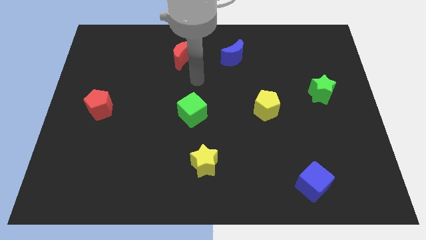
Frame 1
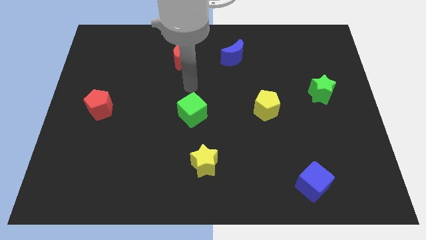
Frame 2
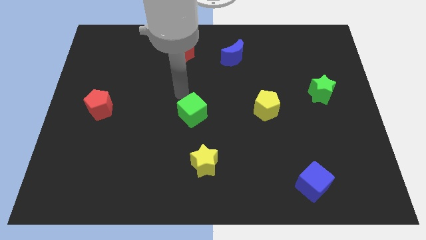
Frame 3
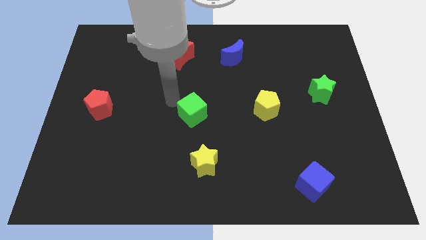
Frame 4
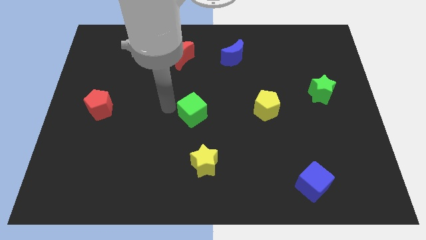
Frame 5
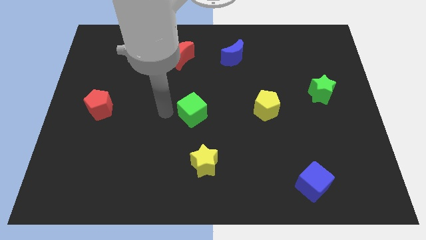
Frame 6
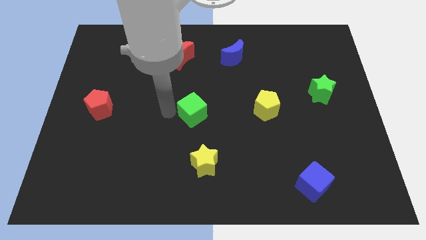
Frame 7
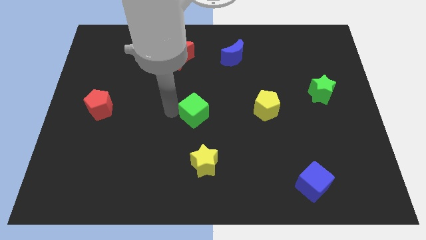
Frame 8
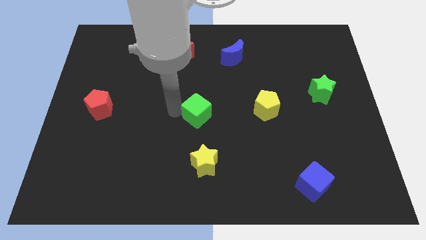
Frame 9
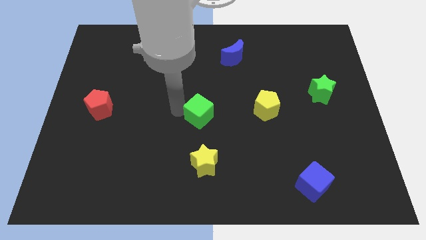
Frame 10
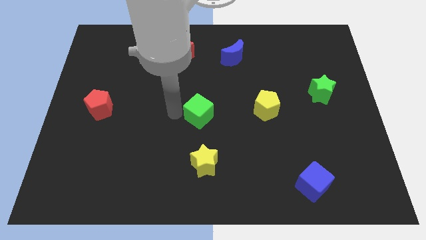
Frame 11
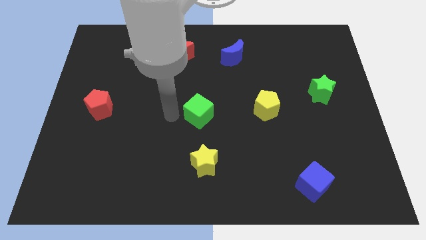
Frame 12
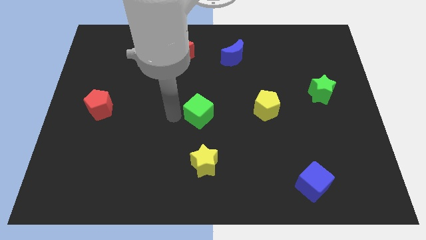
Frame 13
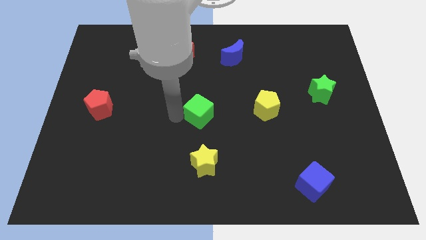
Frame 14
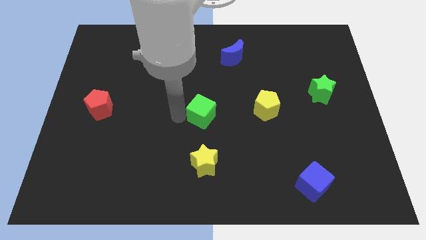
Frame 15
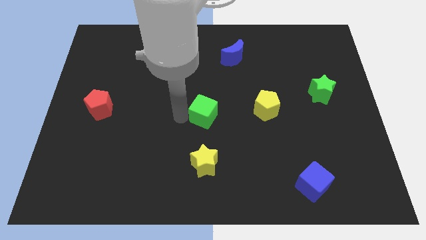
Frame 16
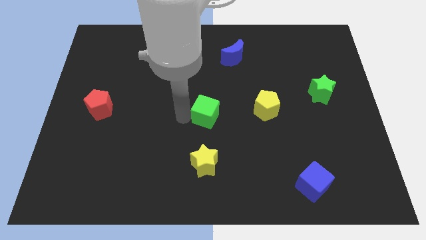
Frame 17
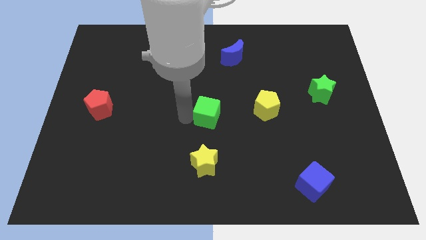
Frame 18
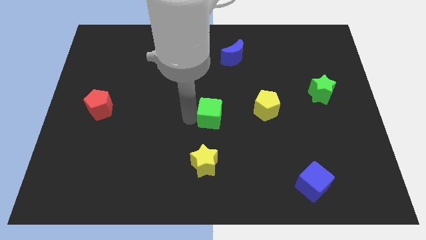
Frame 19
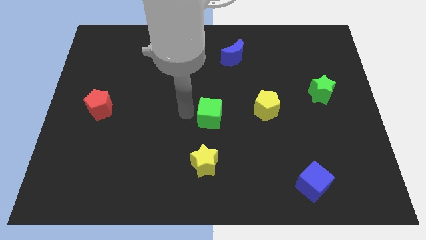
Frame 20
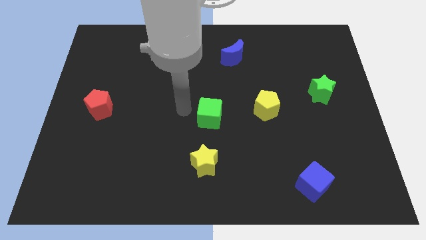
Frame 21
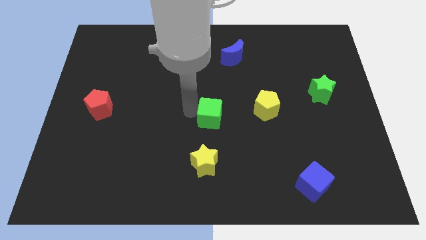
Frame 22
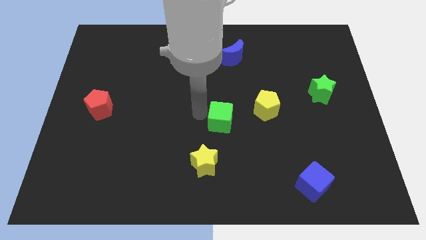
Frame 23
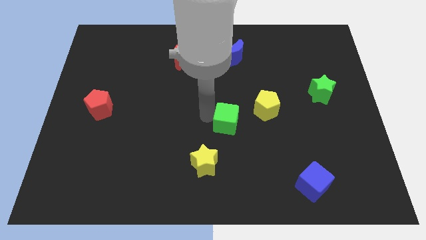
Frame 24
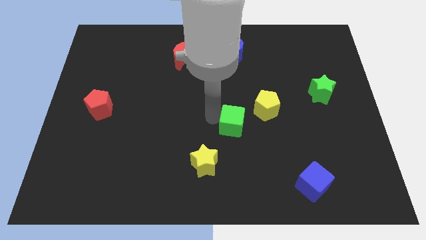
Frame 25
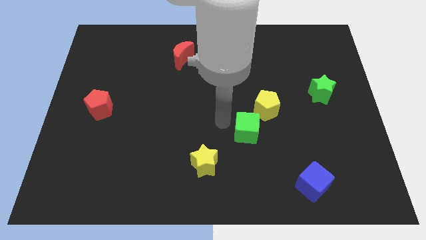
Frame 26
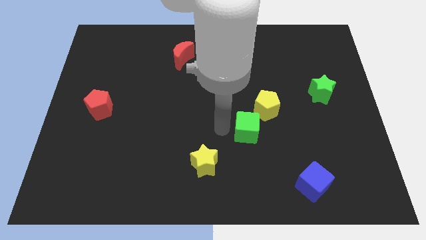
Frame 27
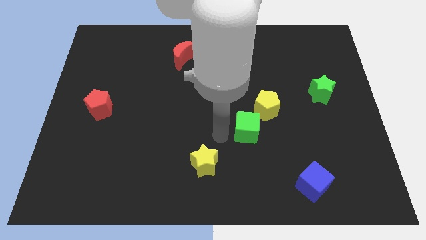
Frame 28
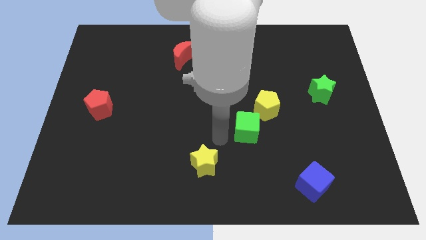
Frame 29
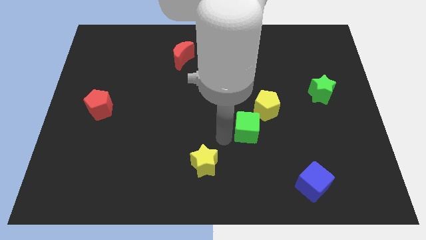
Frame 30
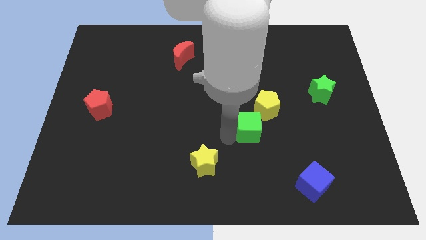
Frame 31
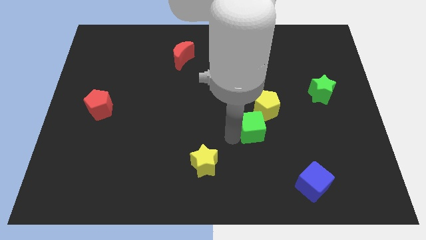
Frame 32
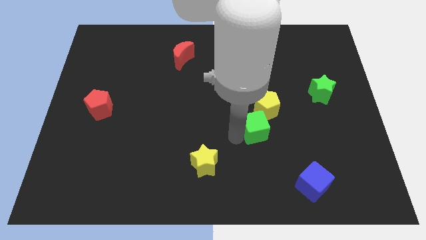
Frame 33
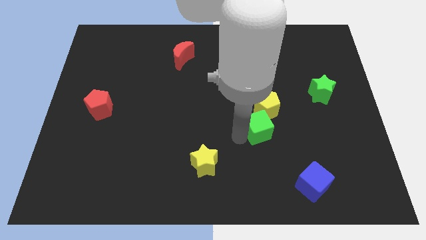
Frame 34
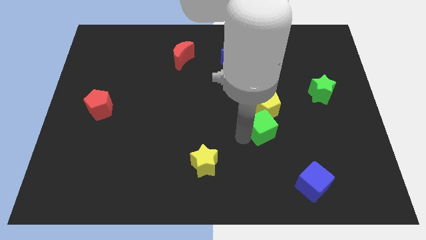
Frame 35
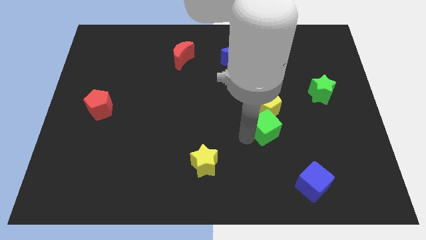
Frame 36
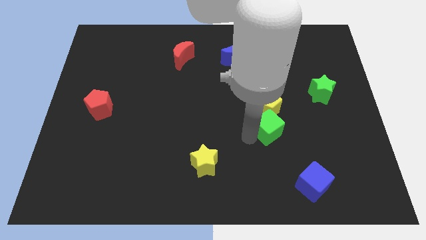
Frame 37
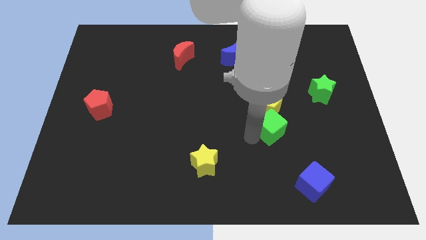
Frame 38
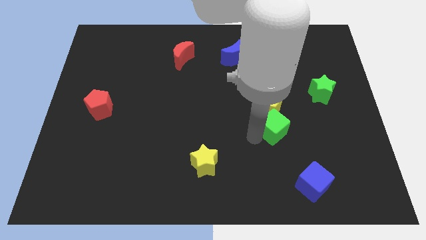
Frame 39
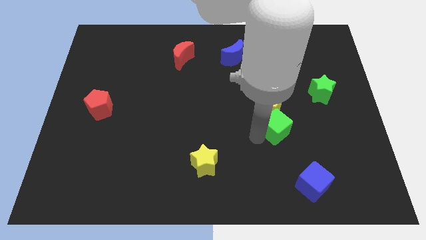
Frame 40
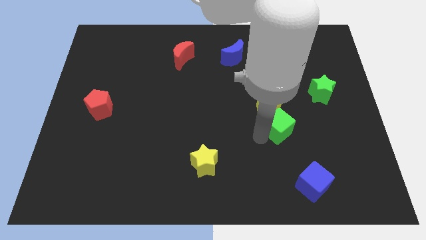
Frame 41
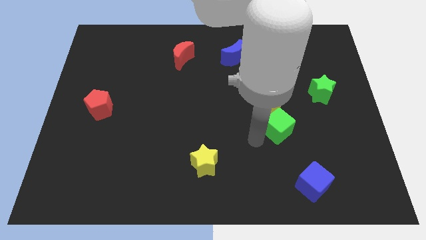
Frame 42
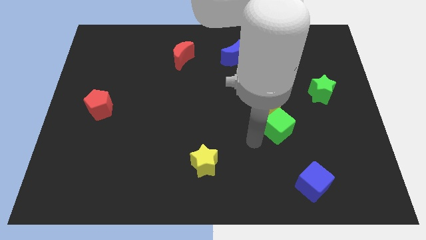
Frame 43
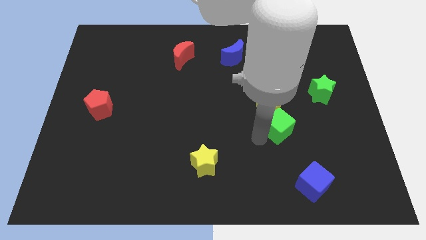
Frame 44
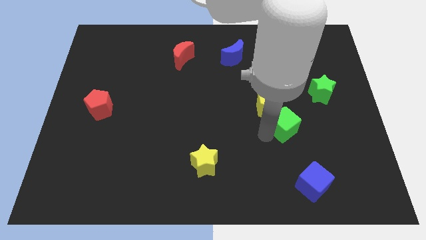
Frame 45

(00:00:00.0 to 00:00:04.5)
move the green cube right

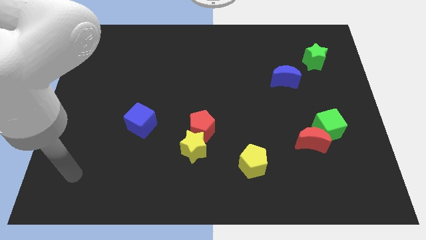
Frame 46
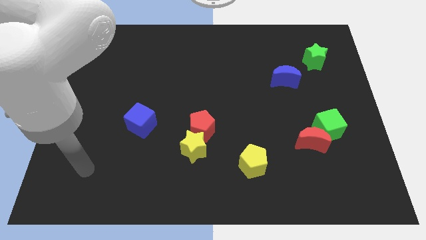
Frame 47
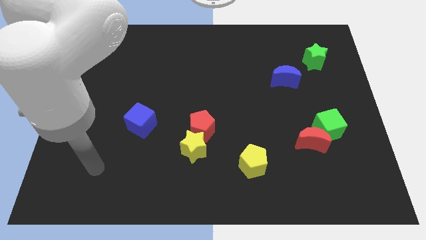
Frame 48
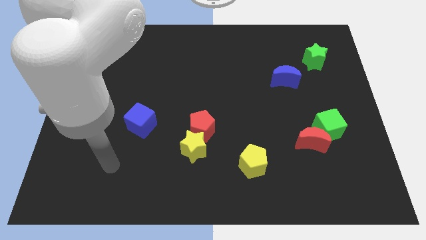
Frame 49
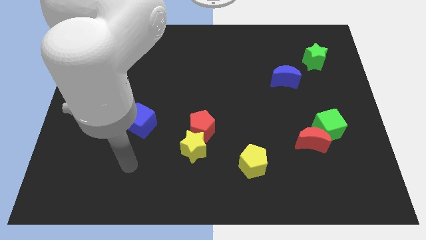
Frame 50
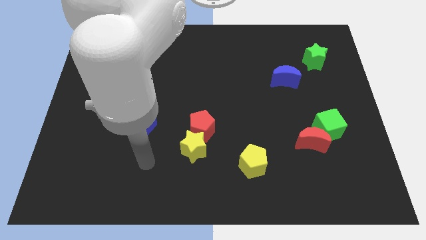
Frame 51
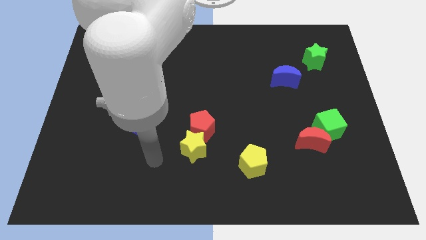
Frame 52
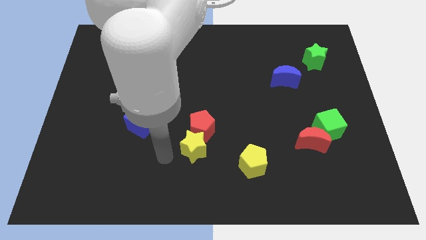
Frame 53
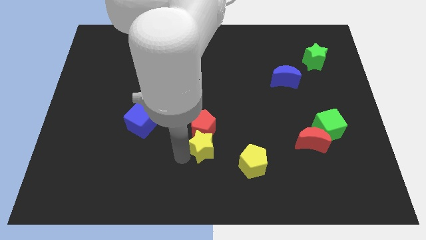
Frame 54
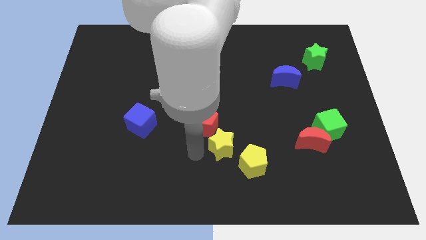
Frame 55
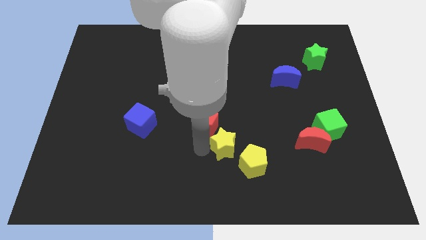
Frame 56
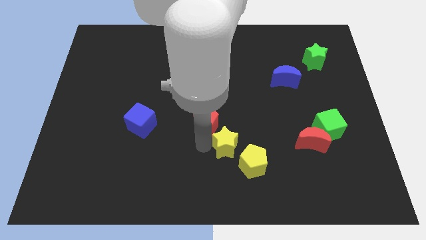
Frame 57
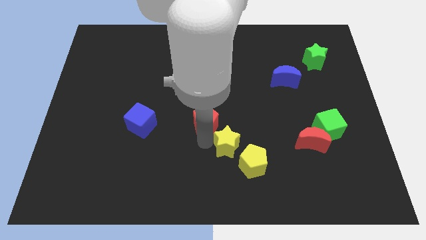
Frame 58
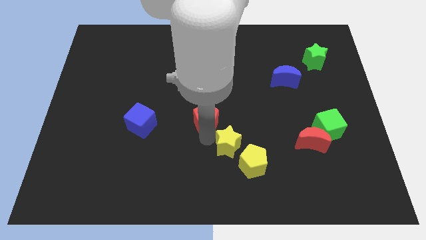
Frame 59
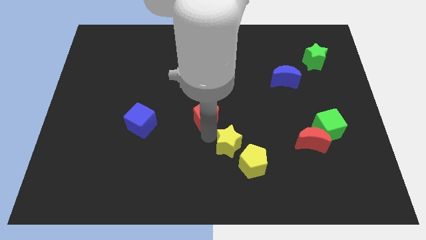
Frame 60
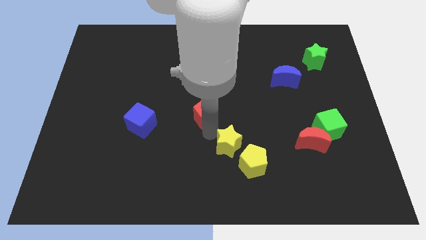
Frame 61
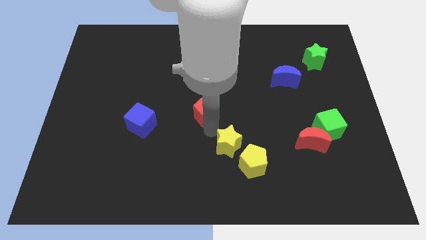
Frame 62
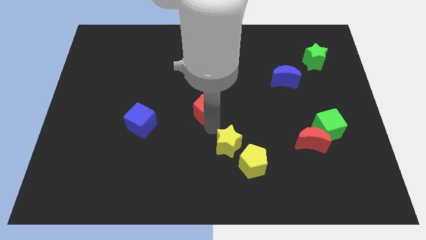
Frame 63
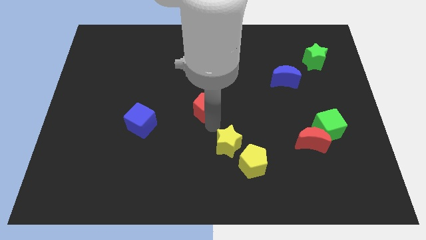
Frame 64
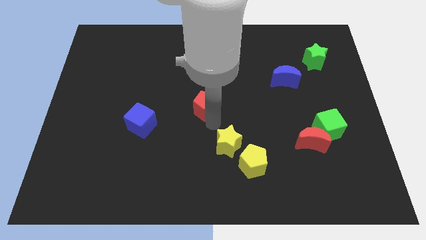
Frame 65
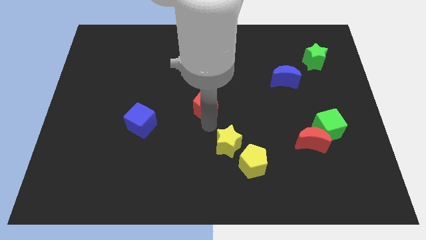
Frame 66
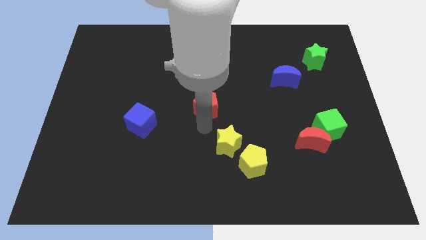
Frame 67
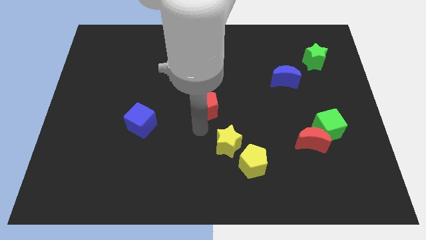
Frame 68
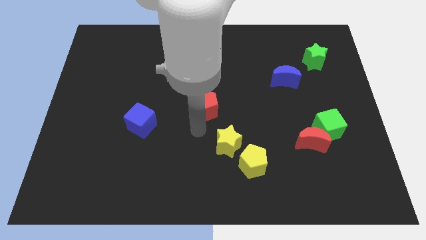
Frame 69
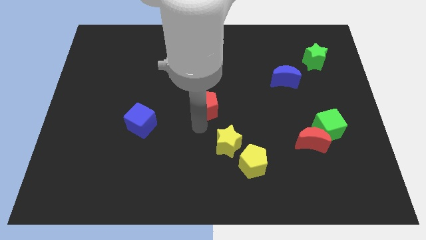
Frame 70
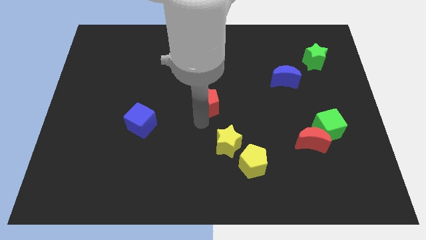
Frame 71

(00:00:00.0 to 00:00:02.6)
slide the red pentagon a little upwards

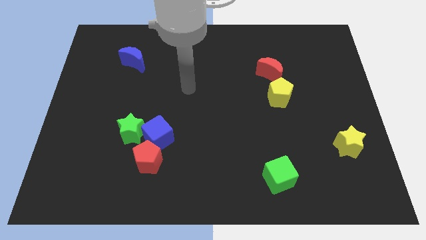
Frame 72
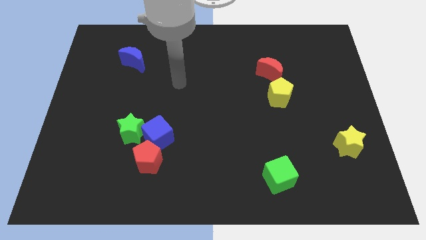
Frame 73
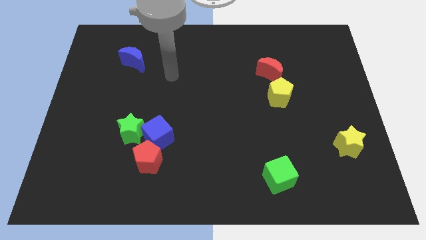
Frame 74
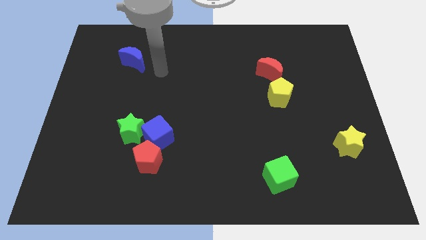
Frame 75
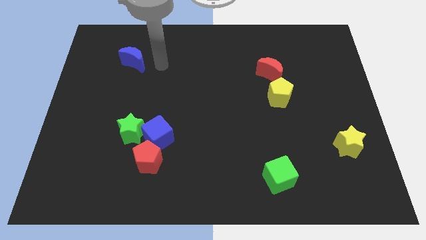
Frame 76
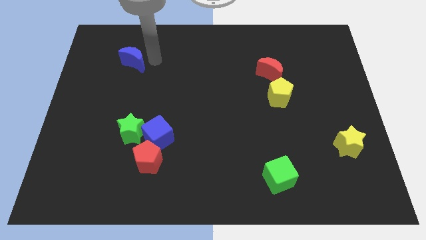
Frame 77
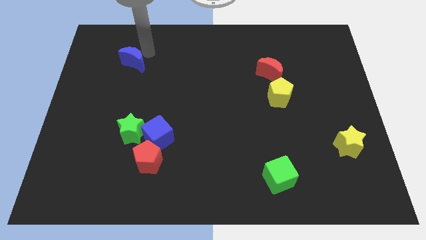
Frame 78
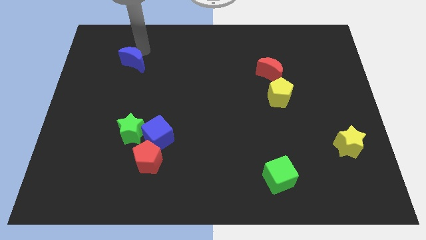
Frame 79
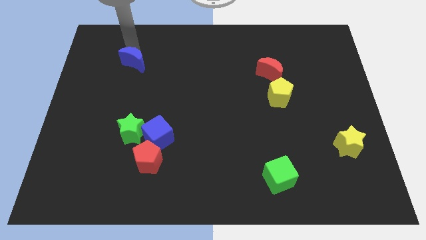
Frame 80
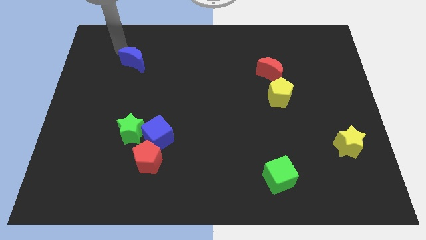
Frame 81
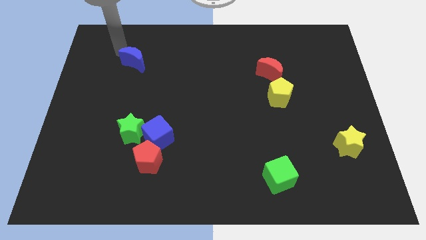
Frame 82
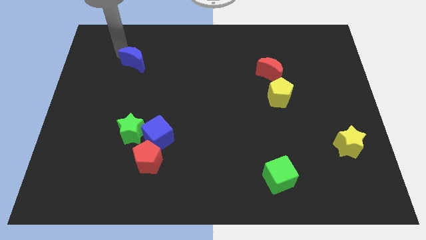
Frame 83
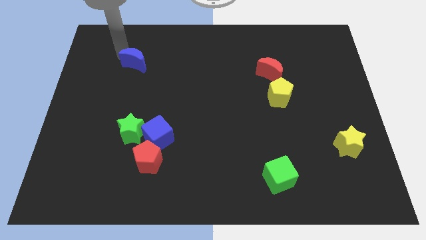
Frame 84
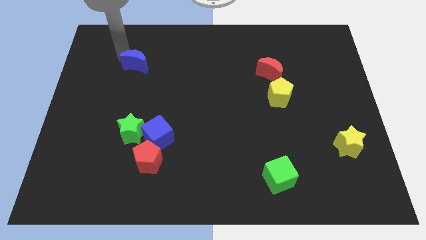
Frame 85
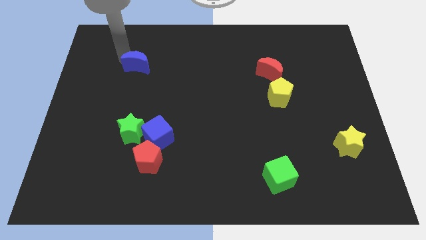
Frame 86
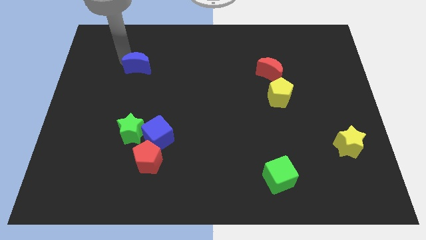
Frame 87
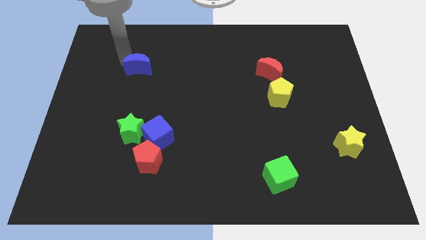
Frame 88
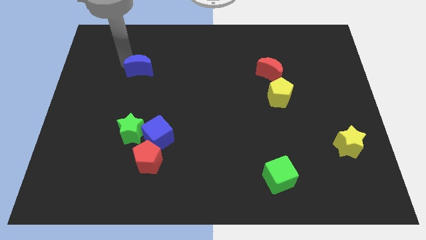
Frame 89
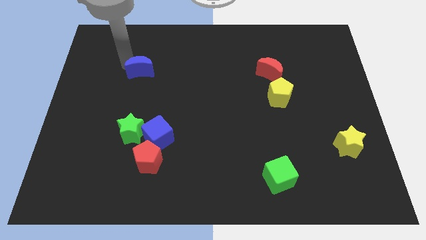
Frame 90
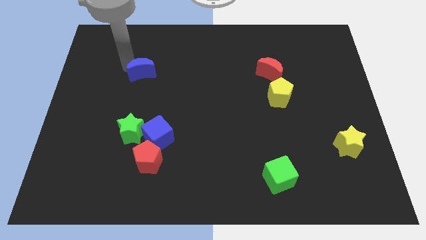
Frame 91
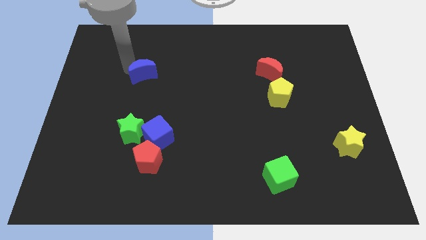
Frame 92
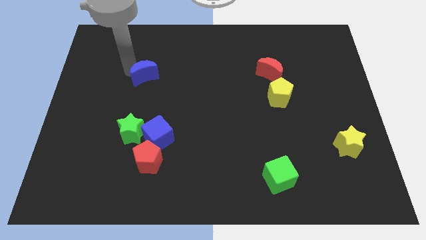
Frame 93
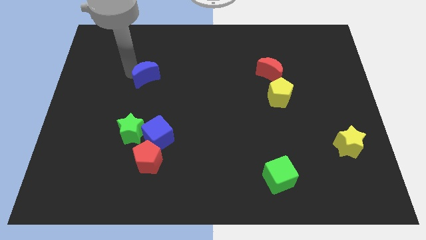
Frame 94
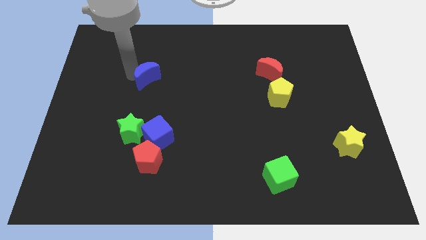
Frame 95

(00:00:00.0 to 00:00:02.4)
push the blue moon a bit down and to the right diagonally
